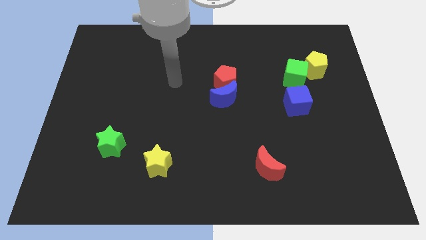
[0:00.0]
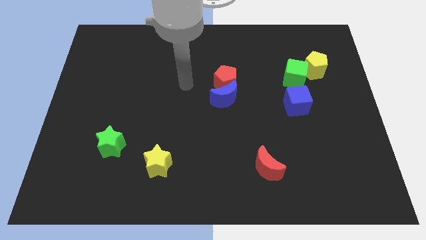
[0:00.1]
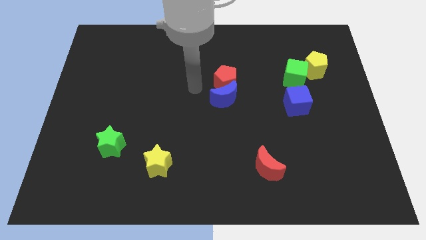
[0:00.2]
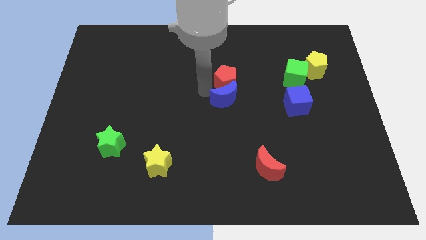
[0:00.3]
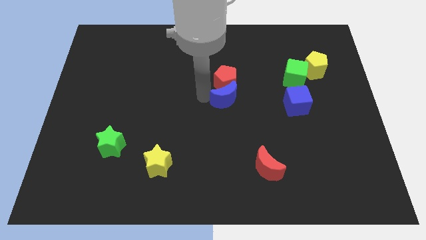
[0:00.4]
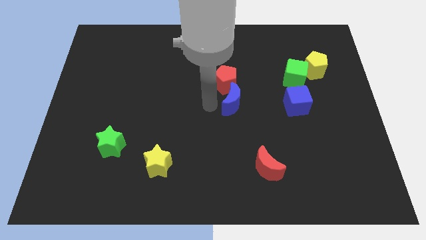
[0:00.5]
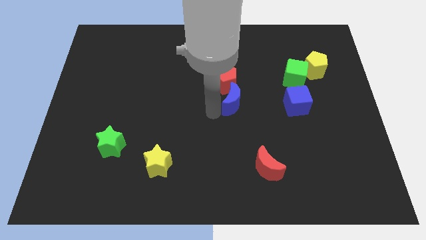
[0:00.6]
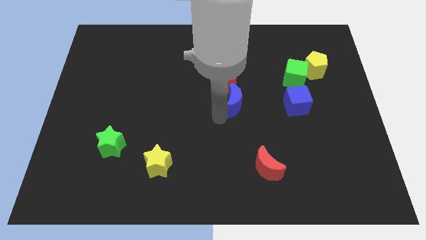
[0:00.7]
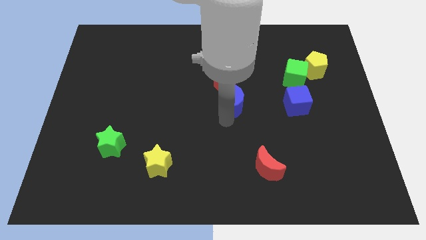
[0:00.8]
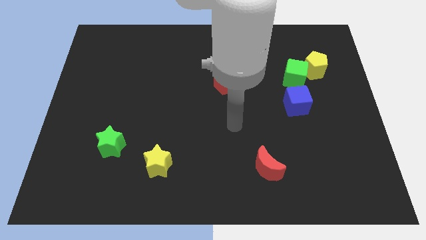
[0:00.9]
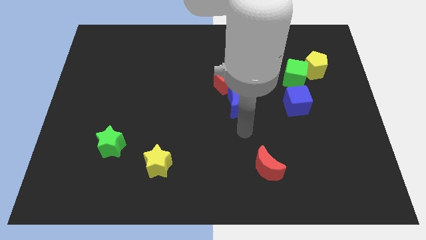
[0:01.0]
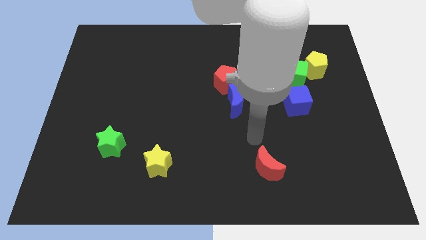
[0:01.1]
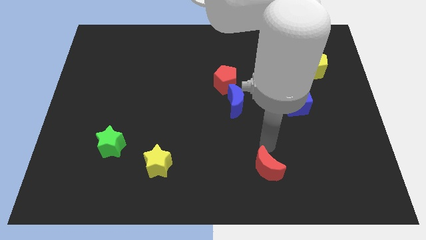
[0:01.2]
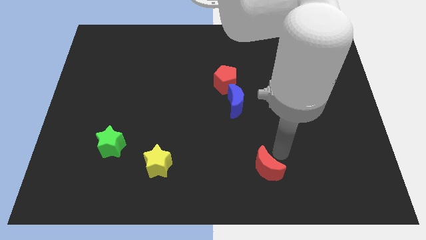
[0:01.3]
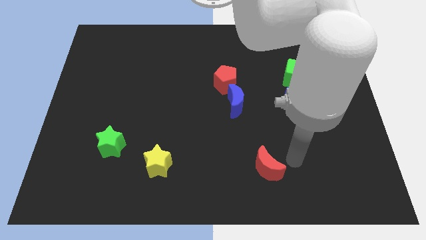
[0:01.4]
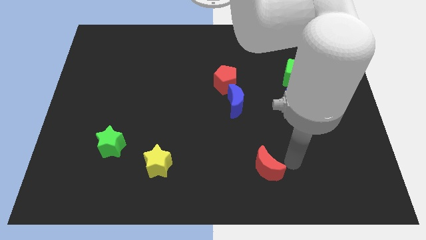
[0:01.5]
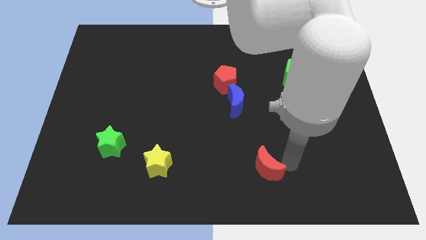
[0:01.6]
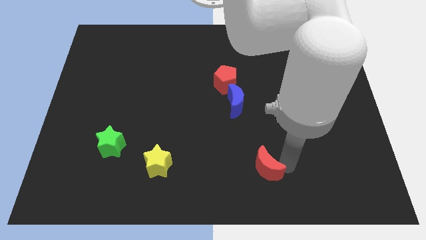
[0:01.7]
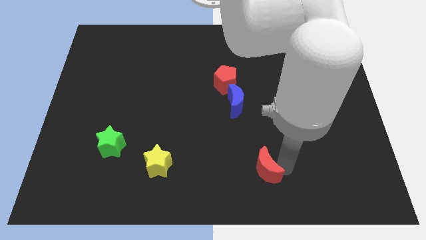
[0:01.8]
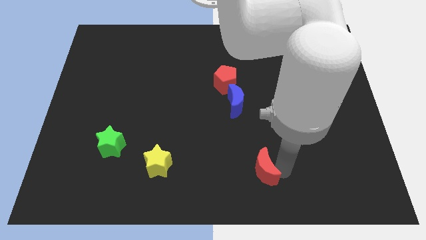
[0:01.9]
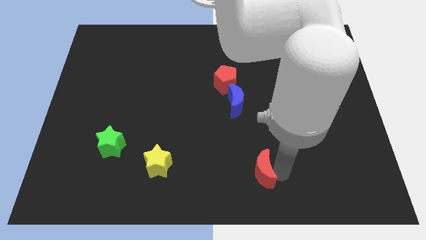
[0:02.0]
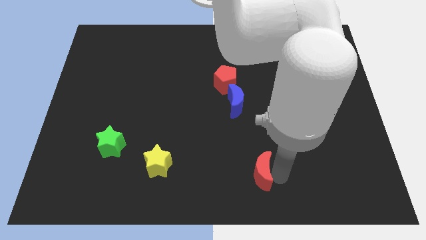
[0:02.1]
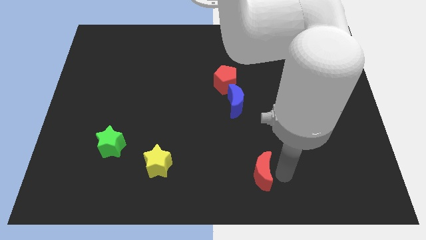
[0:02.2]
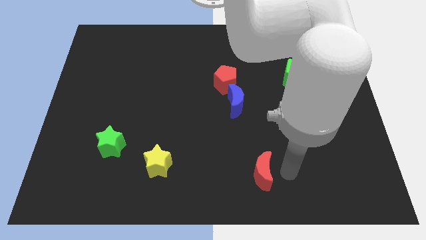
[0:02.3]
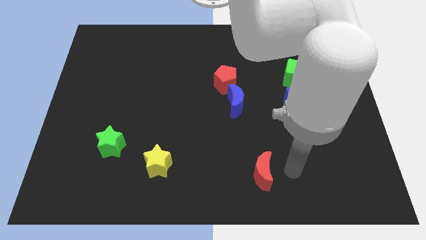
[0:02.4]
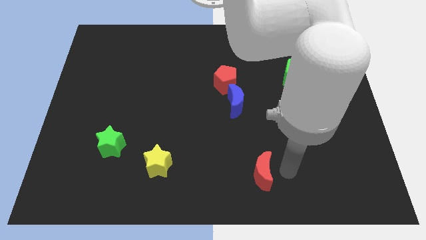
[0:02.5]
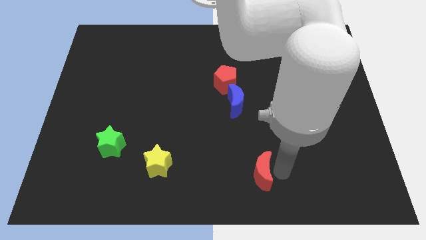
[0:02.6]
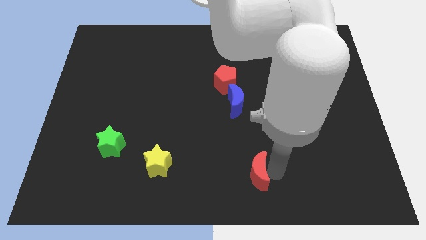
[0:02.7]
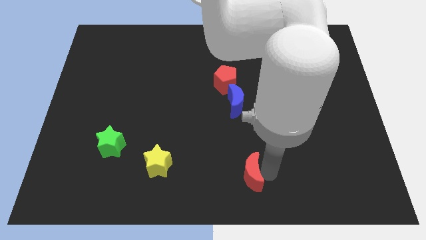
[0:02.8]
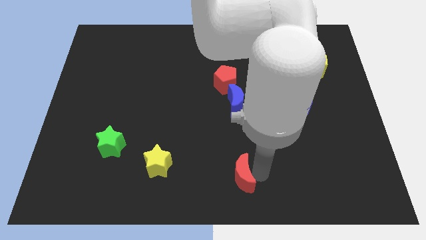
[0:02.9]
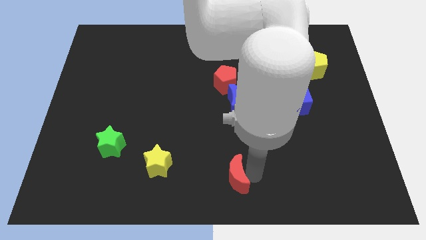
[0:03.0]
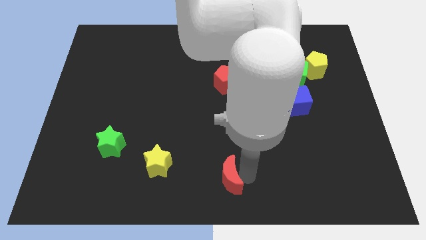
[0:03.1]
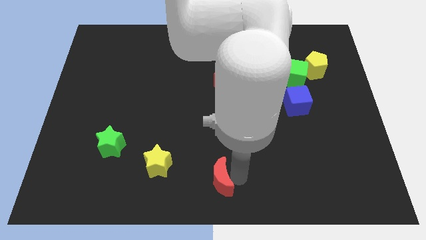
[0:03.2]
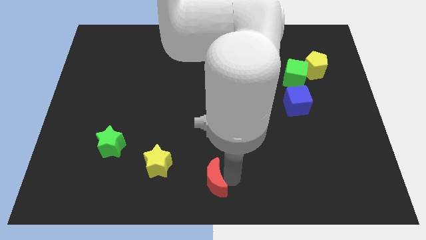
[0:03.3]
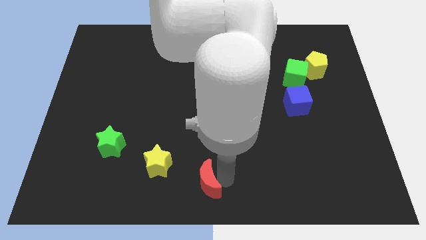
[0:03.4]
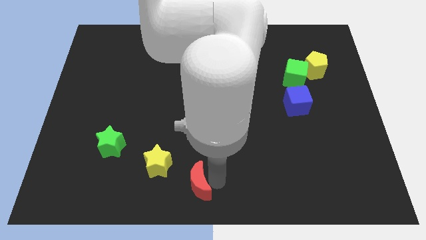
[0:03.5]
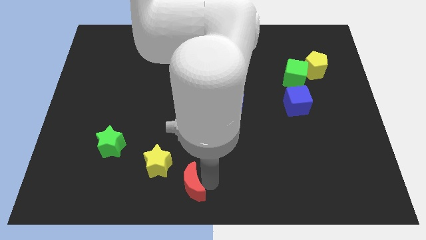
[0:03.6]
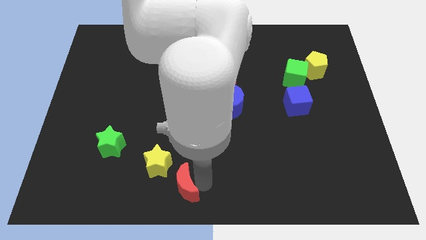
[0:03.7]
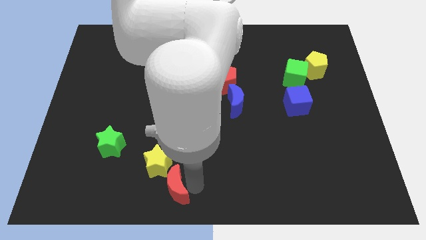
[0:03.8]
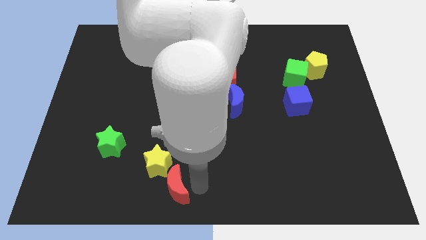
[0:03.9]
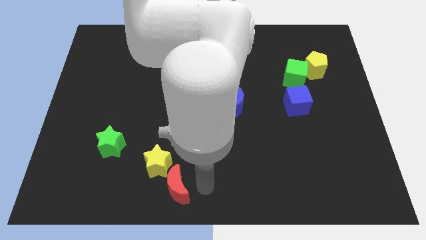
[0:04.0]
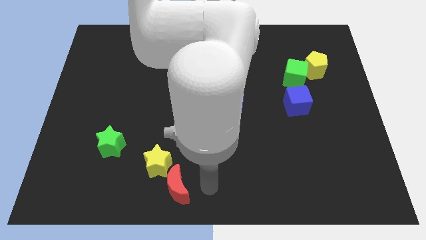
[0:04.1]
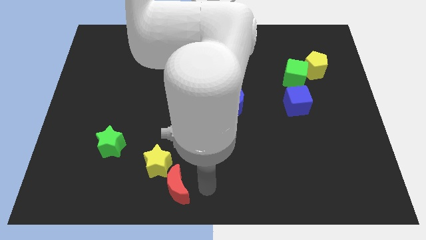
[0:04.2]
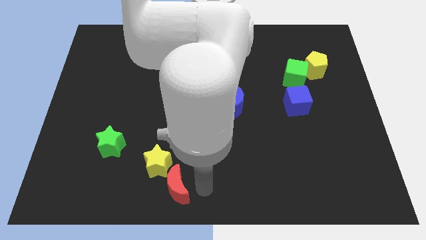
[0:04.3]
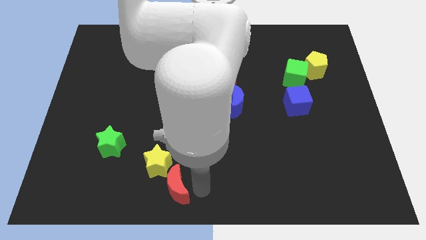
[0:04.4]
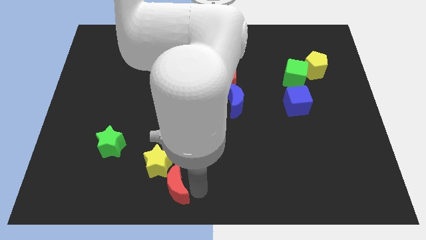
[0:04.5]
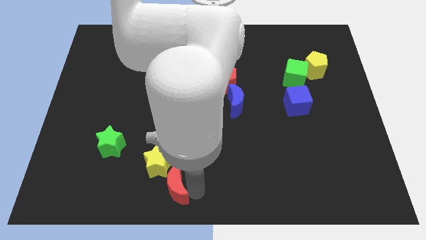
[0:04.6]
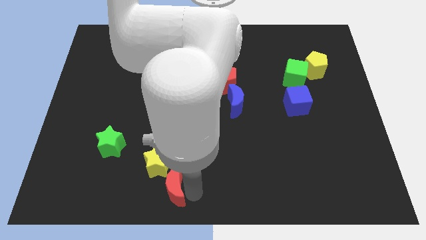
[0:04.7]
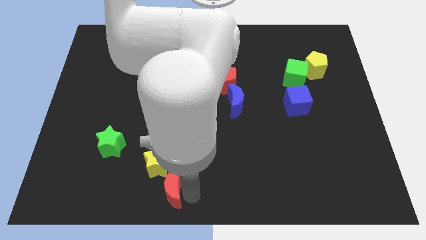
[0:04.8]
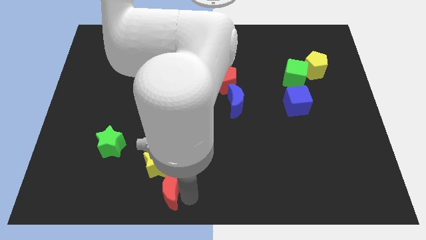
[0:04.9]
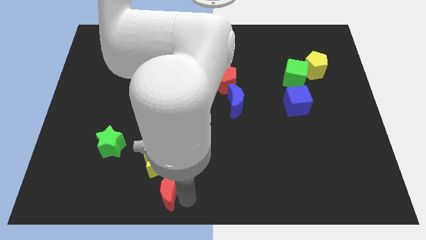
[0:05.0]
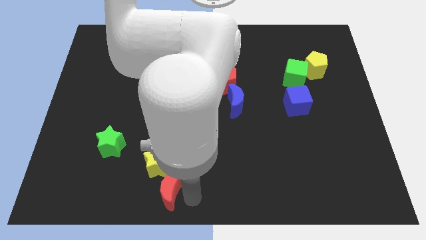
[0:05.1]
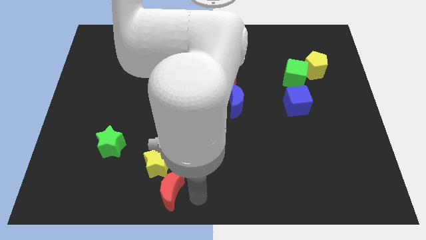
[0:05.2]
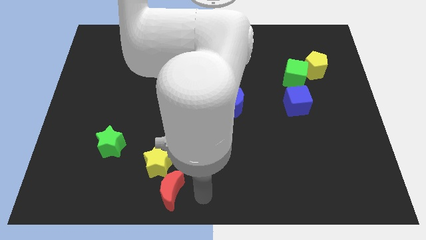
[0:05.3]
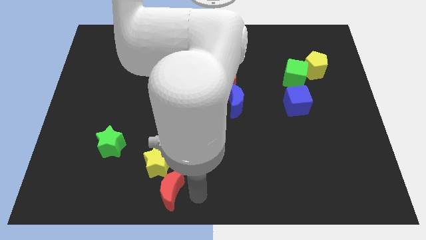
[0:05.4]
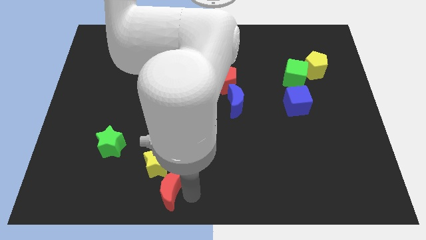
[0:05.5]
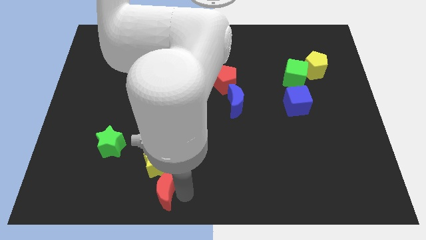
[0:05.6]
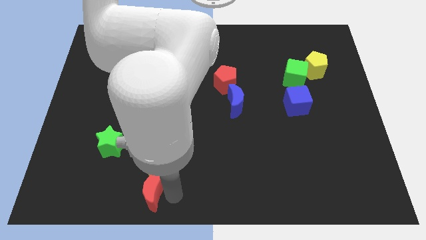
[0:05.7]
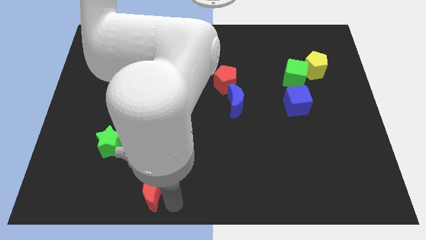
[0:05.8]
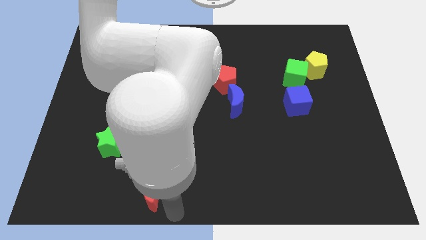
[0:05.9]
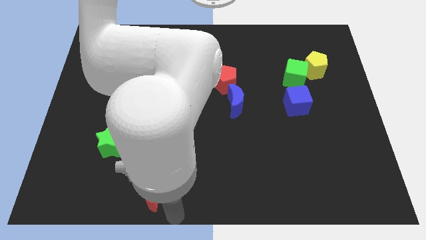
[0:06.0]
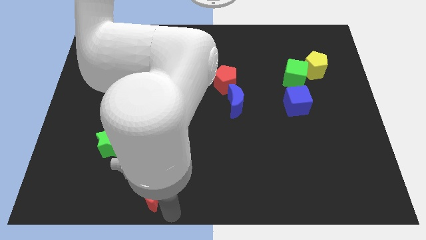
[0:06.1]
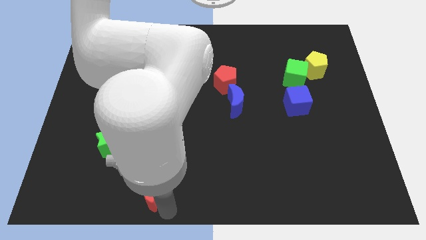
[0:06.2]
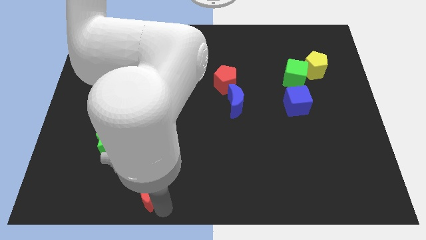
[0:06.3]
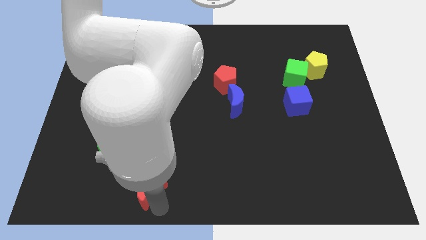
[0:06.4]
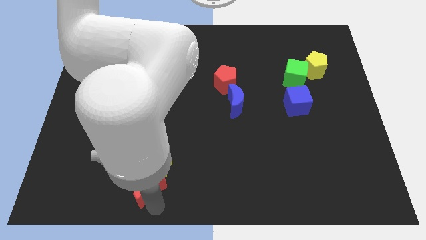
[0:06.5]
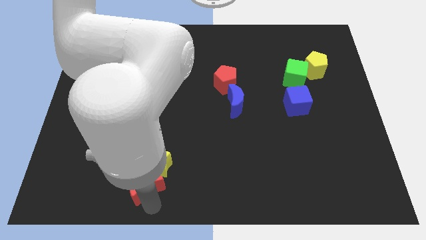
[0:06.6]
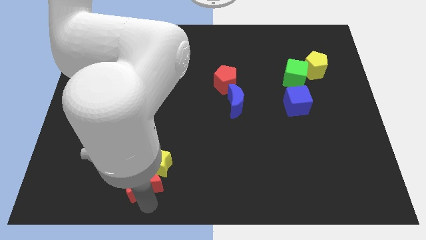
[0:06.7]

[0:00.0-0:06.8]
put the red moon diagonally down and to the right of the green star
